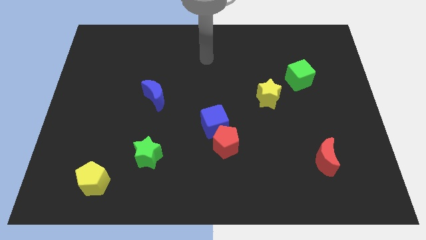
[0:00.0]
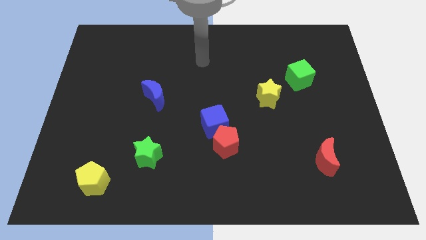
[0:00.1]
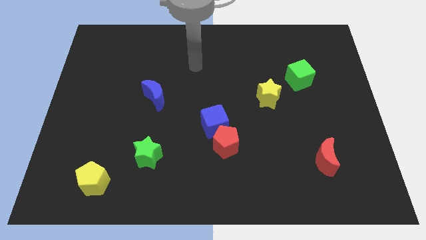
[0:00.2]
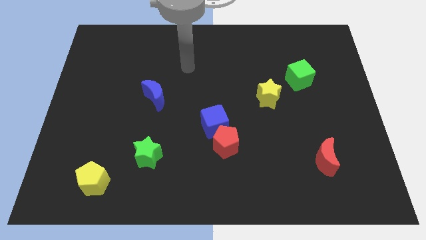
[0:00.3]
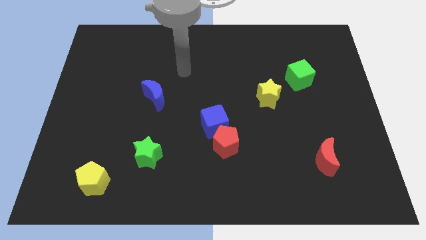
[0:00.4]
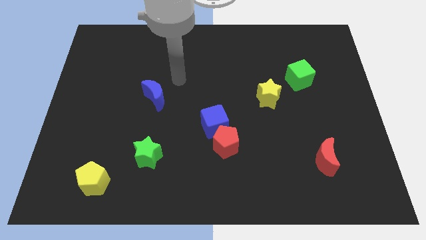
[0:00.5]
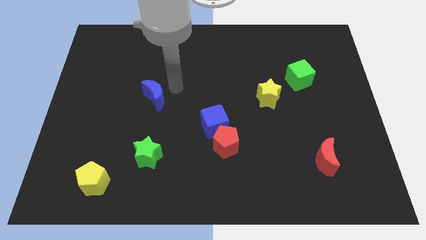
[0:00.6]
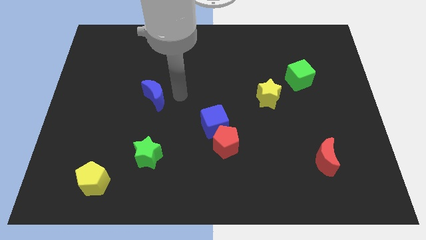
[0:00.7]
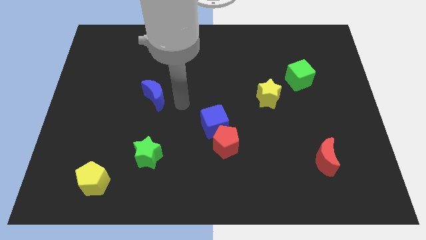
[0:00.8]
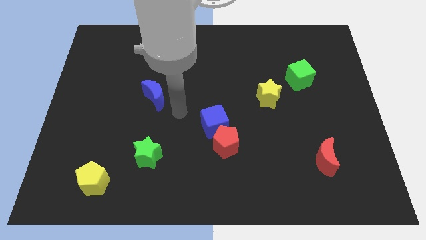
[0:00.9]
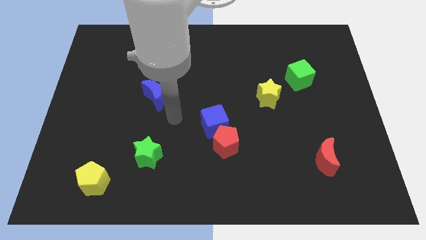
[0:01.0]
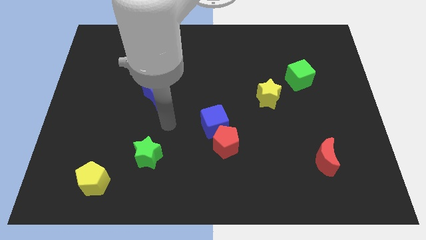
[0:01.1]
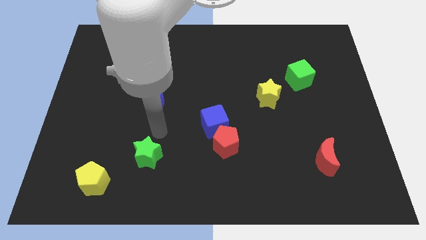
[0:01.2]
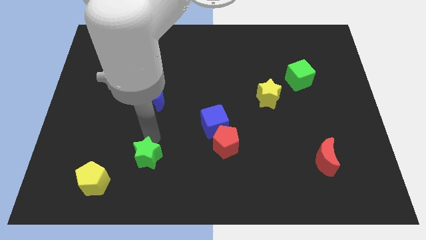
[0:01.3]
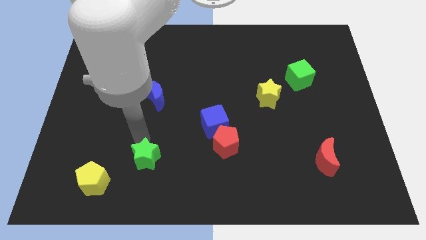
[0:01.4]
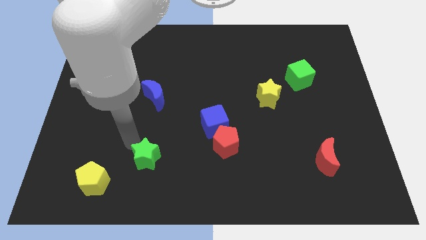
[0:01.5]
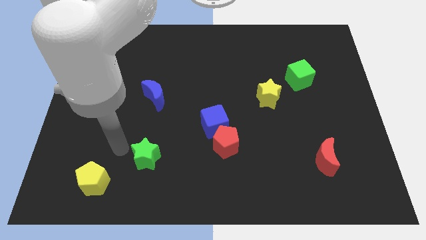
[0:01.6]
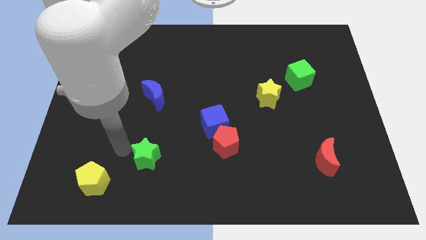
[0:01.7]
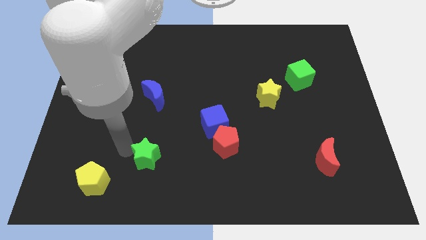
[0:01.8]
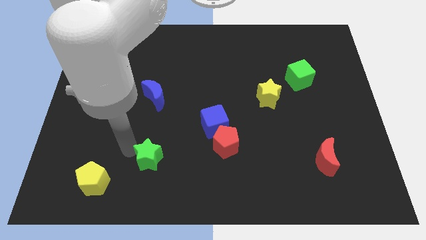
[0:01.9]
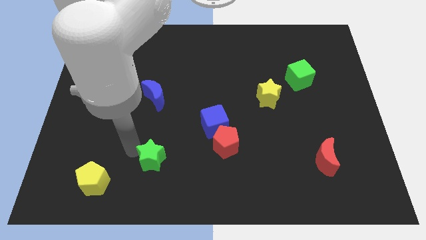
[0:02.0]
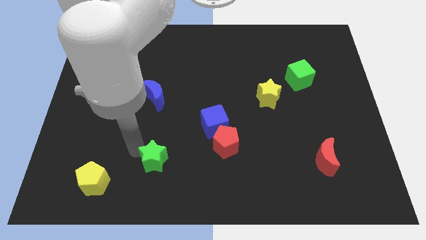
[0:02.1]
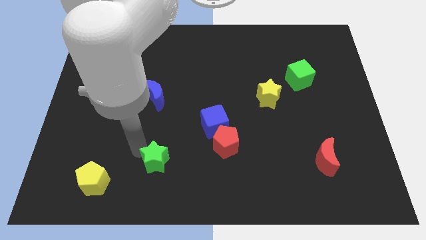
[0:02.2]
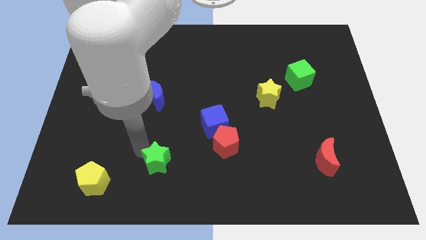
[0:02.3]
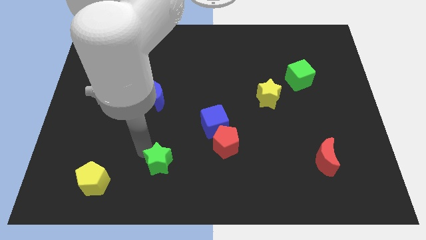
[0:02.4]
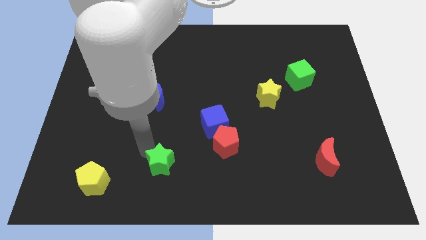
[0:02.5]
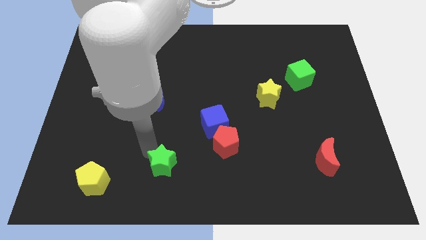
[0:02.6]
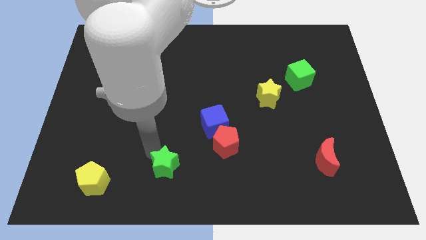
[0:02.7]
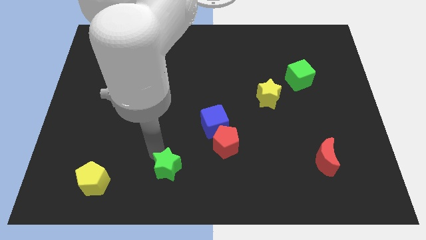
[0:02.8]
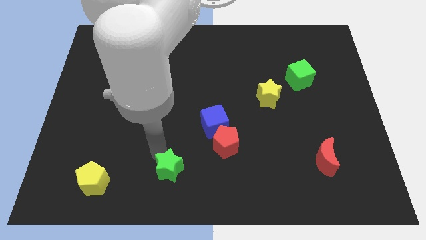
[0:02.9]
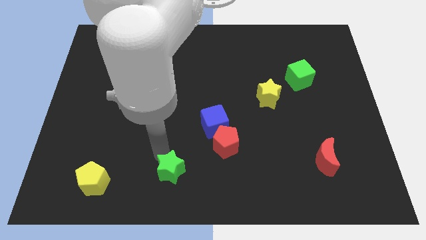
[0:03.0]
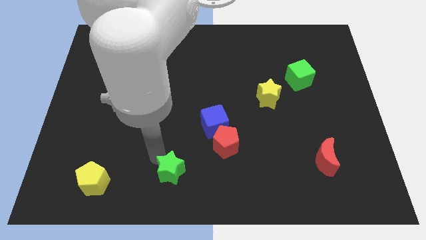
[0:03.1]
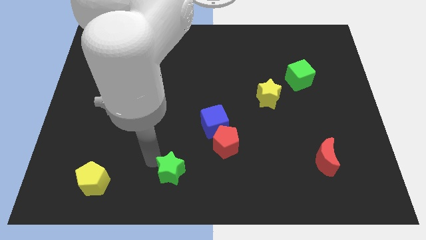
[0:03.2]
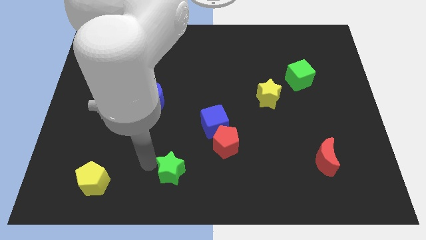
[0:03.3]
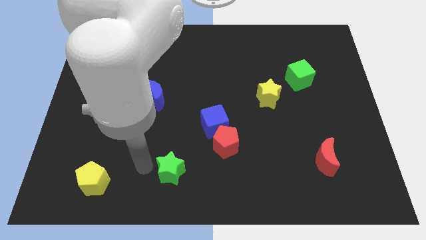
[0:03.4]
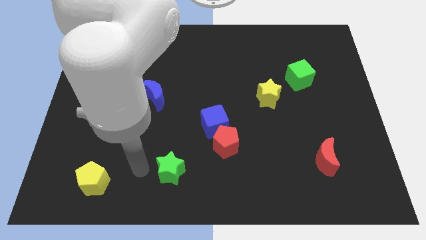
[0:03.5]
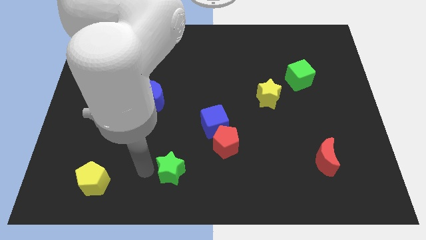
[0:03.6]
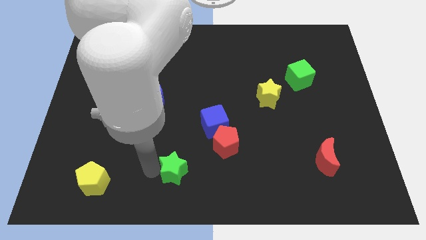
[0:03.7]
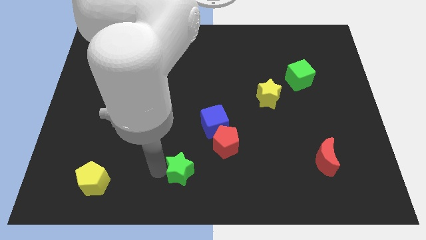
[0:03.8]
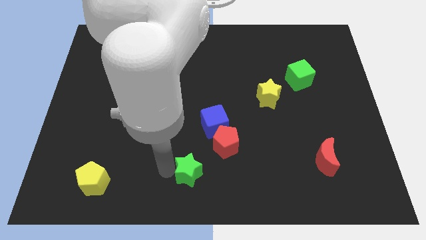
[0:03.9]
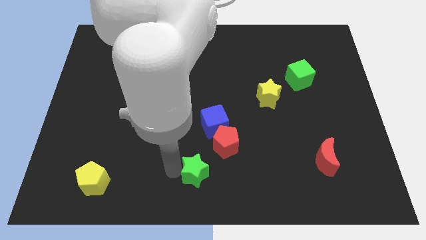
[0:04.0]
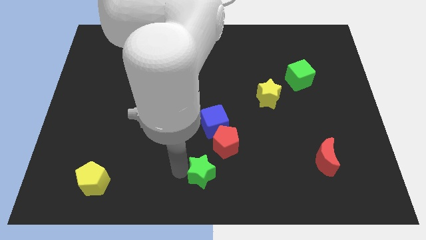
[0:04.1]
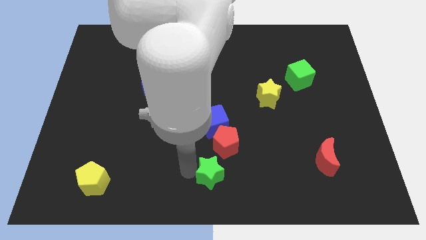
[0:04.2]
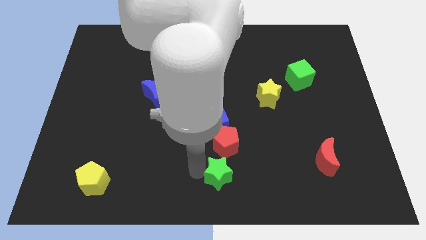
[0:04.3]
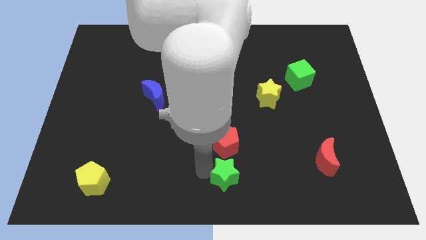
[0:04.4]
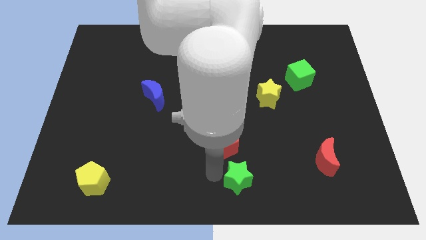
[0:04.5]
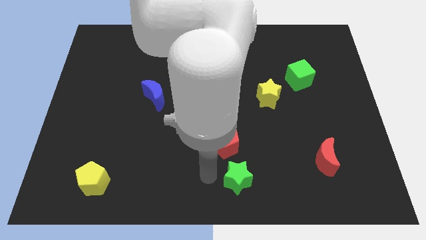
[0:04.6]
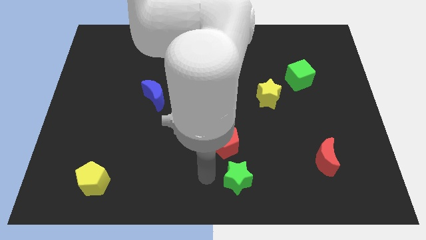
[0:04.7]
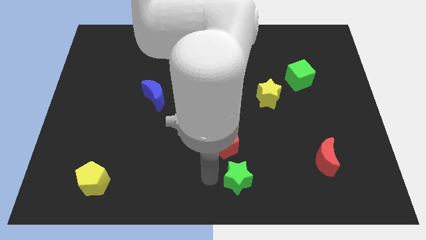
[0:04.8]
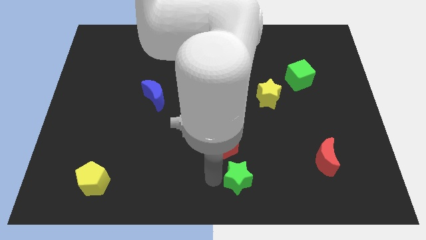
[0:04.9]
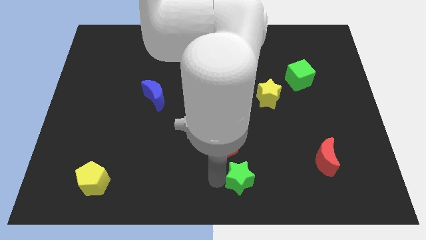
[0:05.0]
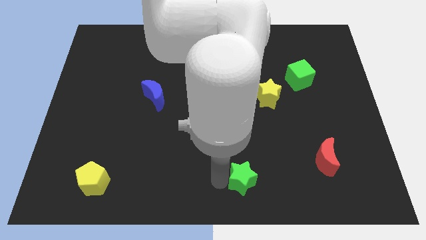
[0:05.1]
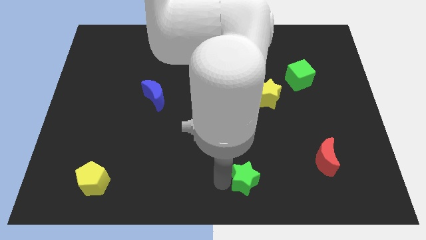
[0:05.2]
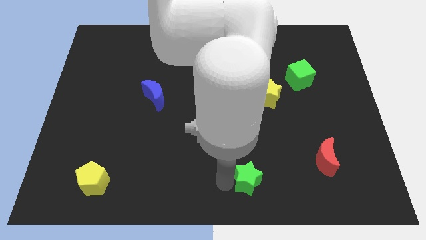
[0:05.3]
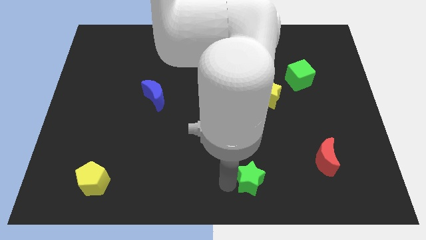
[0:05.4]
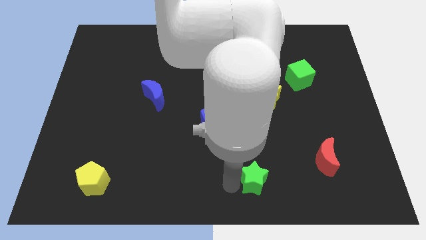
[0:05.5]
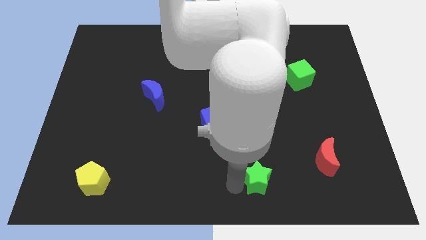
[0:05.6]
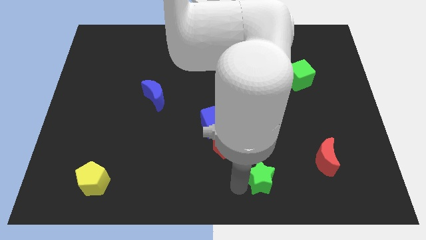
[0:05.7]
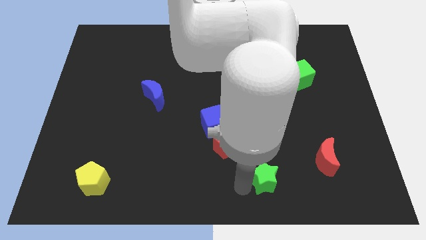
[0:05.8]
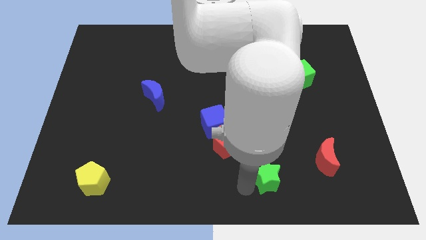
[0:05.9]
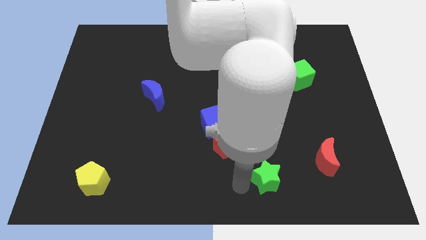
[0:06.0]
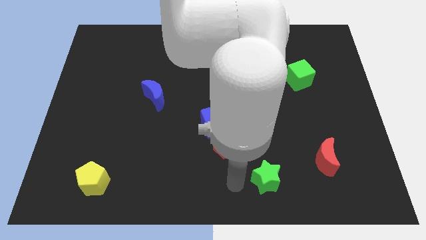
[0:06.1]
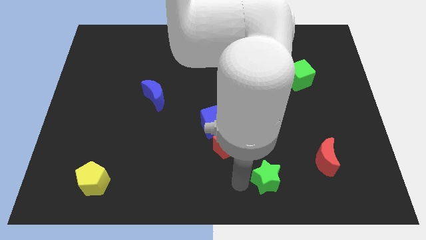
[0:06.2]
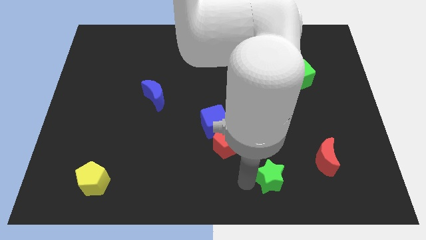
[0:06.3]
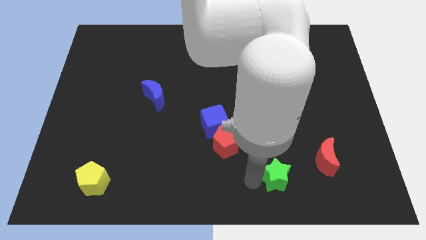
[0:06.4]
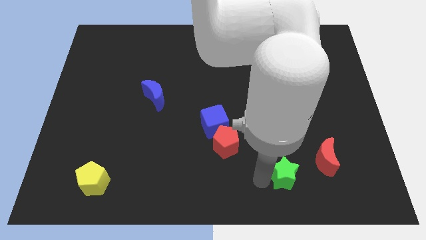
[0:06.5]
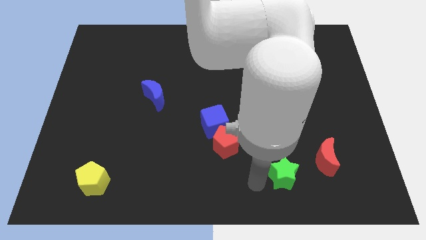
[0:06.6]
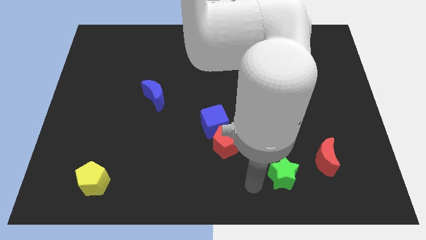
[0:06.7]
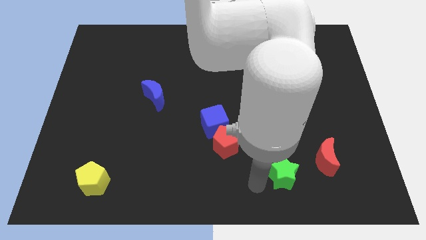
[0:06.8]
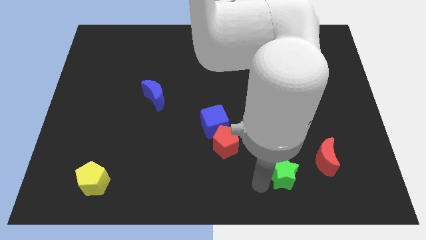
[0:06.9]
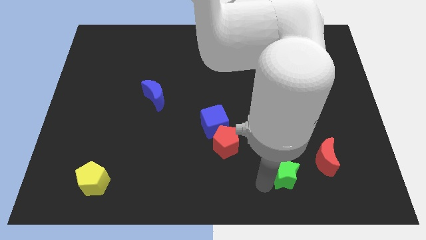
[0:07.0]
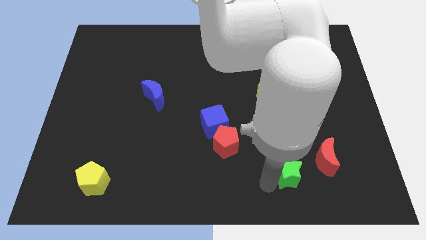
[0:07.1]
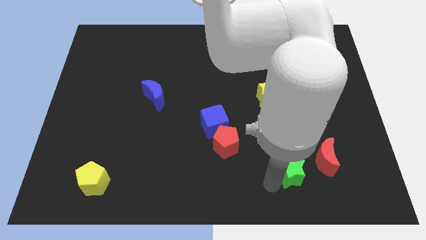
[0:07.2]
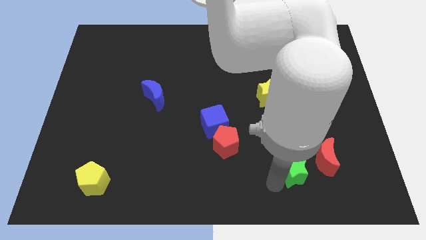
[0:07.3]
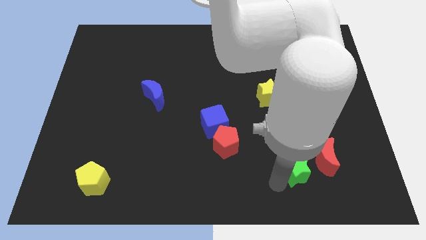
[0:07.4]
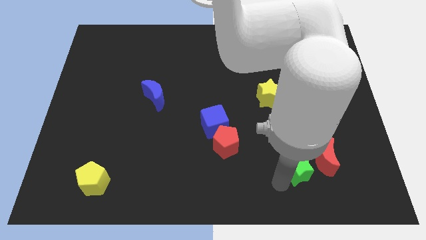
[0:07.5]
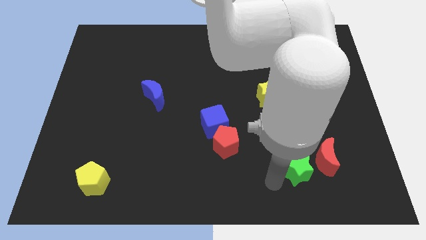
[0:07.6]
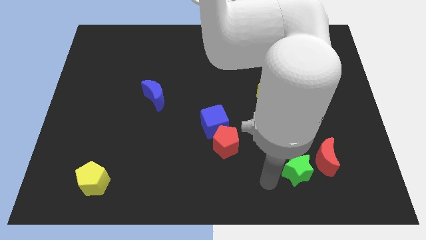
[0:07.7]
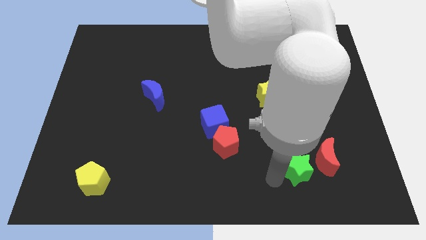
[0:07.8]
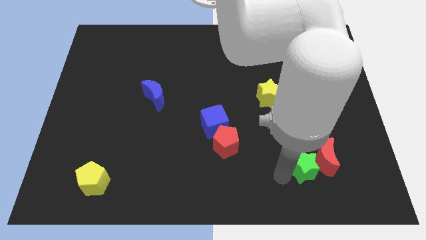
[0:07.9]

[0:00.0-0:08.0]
push the green star next to the red moon
